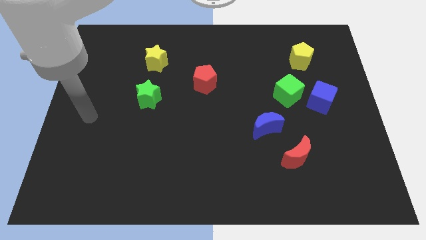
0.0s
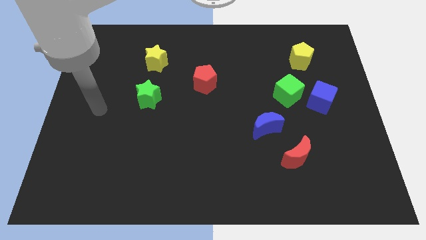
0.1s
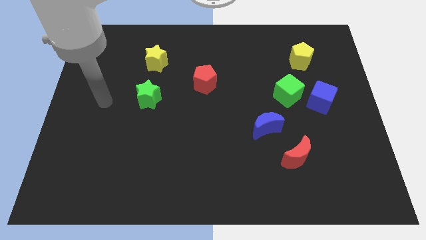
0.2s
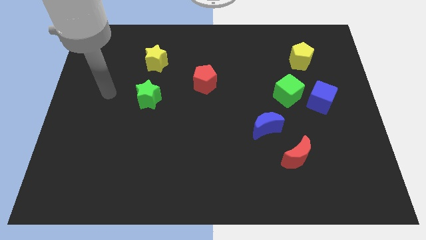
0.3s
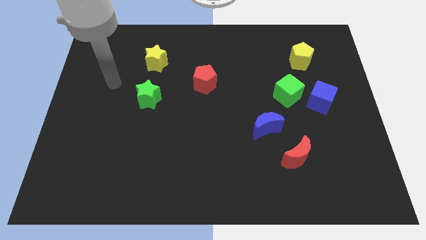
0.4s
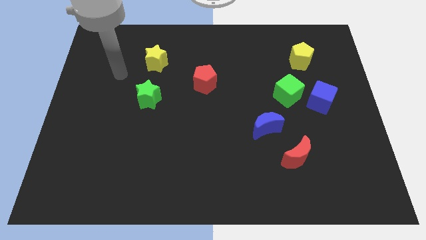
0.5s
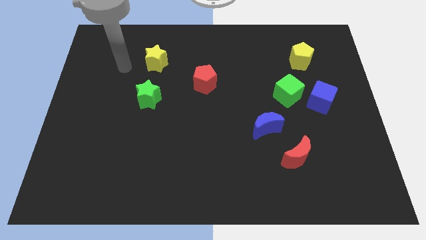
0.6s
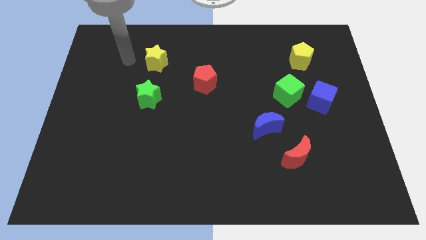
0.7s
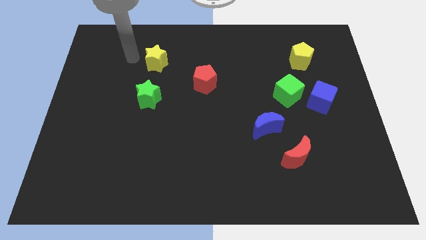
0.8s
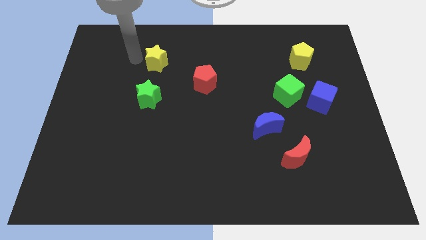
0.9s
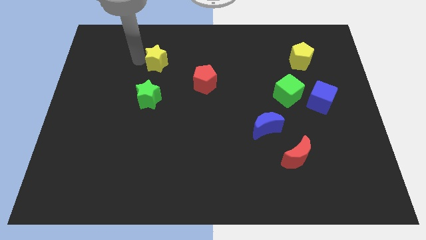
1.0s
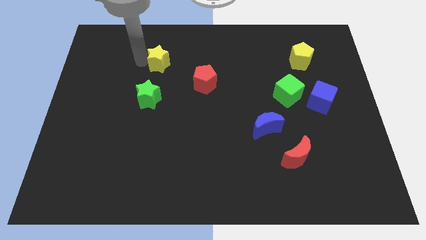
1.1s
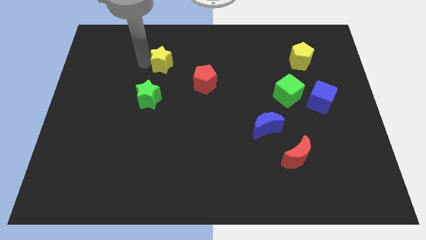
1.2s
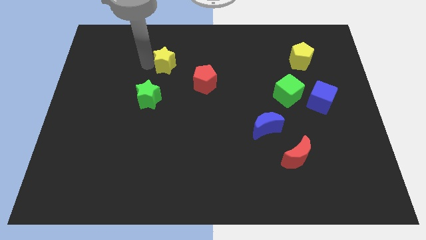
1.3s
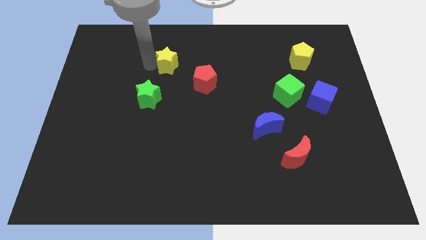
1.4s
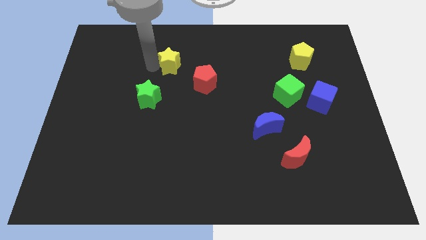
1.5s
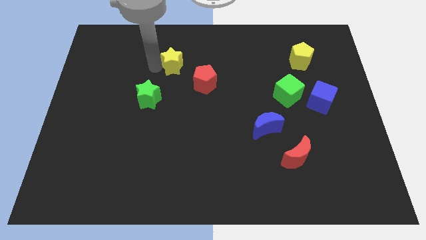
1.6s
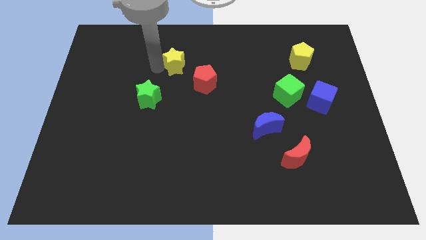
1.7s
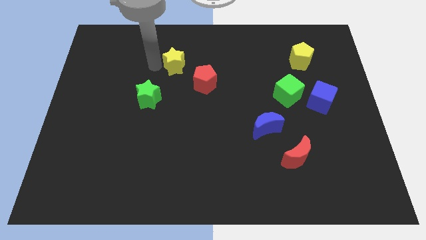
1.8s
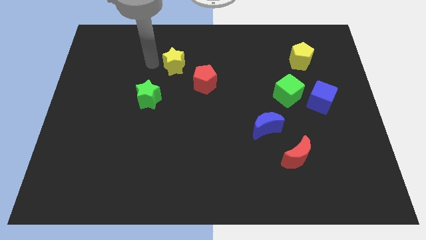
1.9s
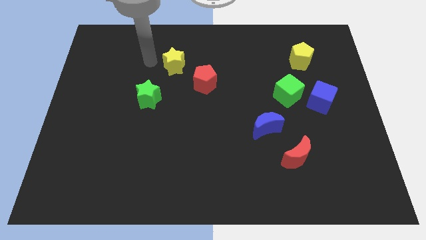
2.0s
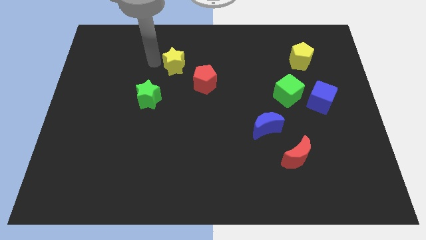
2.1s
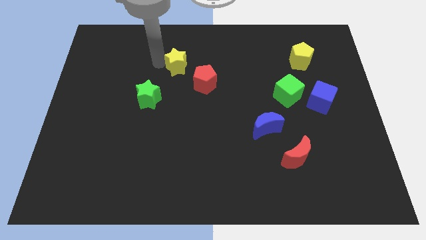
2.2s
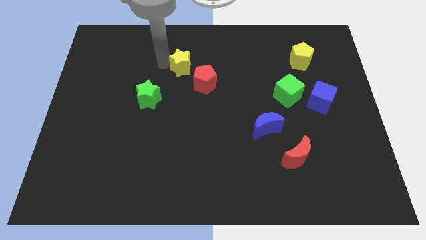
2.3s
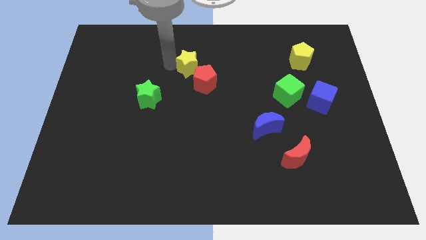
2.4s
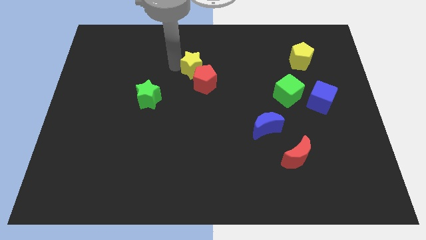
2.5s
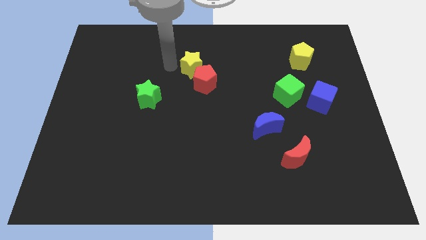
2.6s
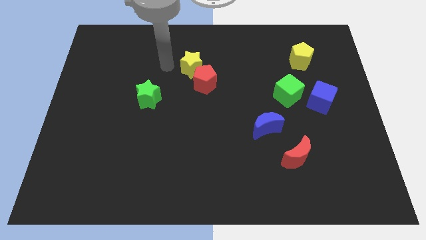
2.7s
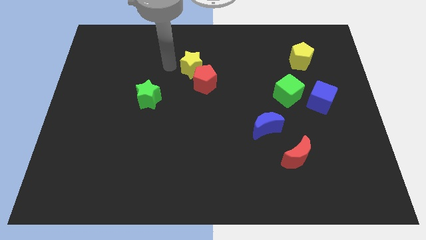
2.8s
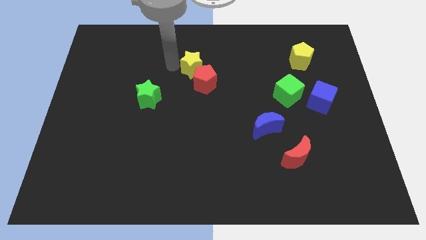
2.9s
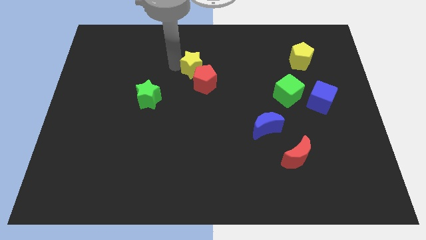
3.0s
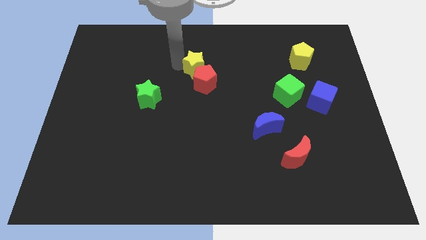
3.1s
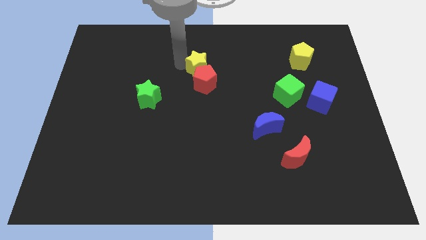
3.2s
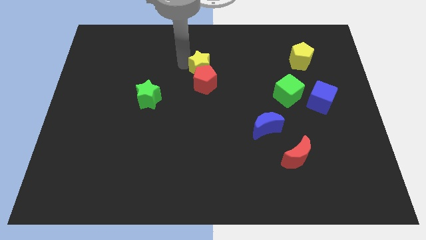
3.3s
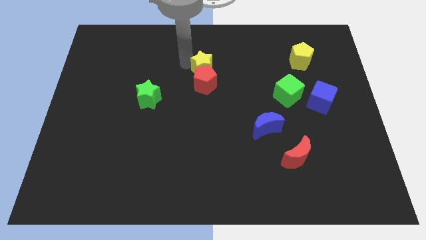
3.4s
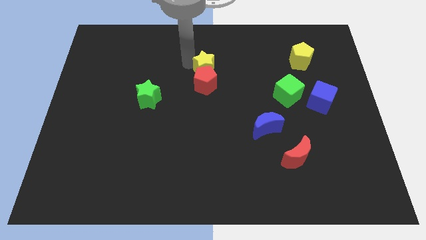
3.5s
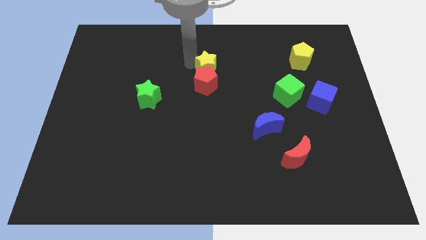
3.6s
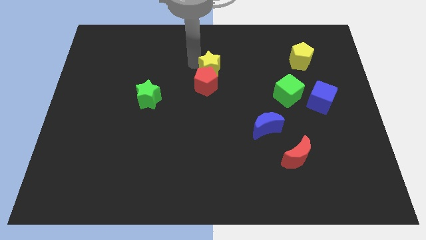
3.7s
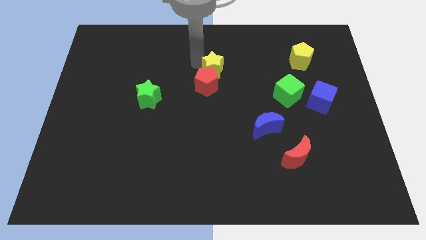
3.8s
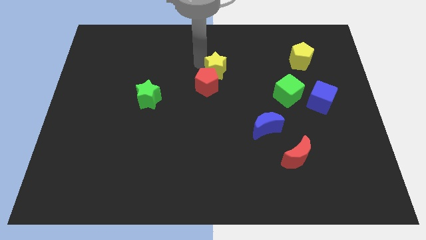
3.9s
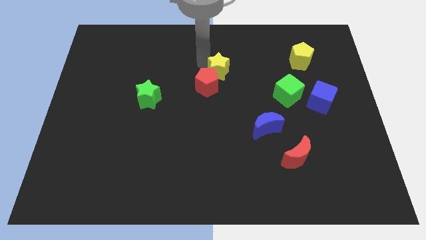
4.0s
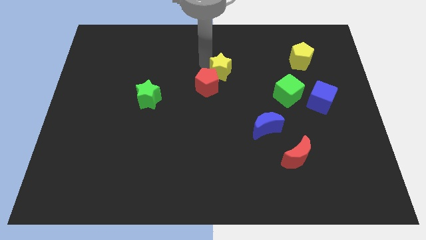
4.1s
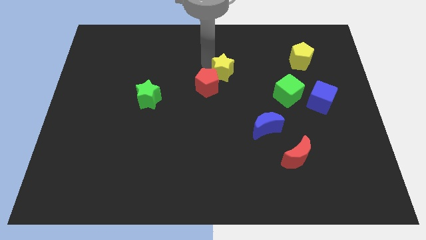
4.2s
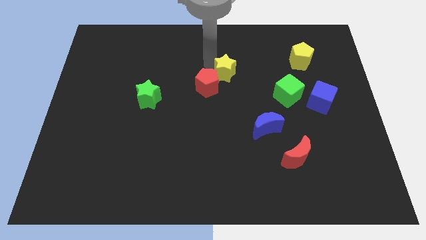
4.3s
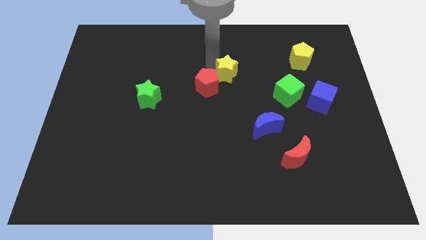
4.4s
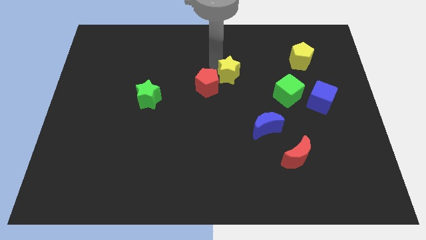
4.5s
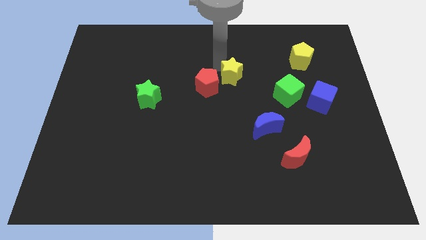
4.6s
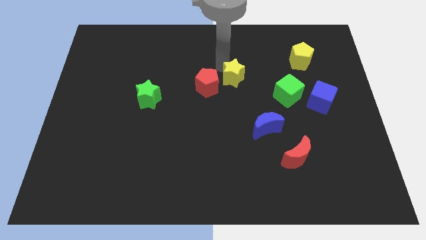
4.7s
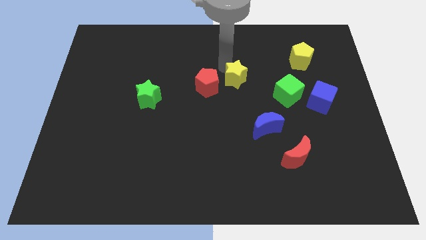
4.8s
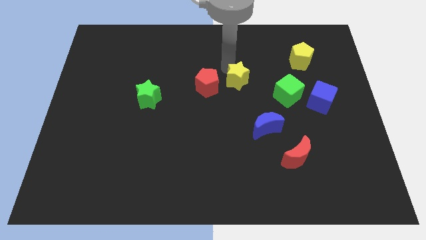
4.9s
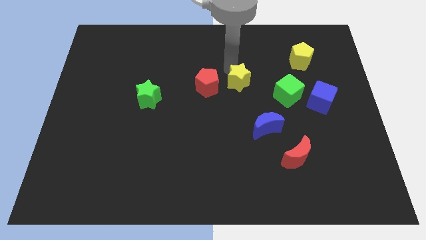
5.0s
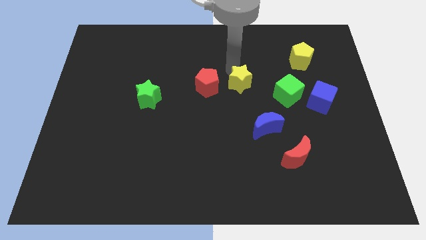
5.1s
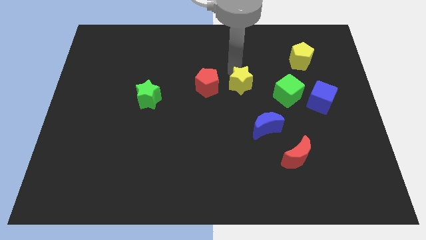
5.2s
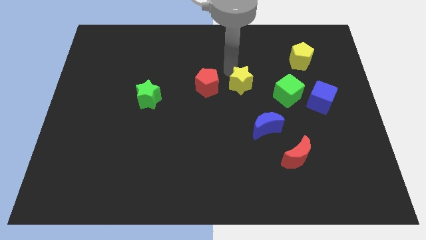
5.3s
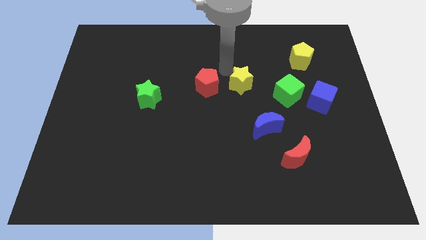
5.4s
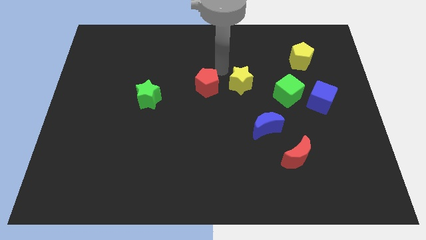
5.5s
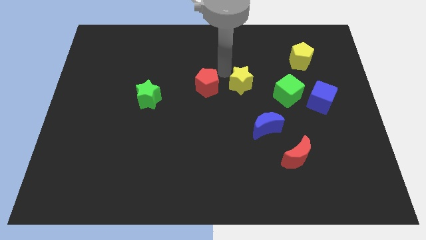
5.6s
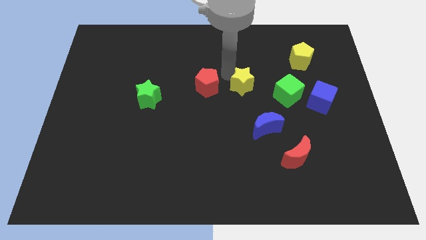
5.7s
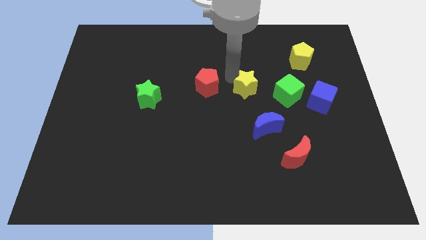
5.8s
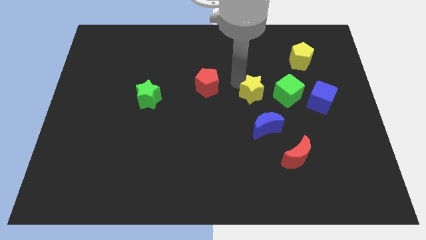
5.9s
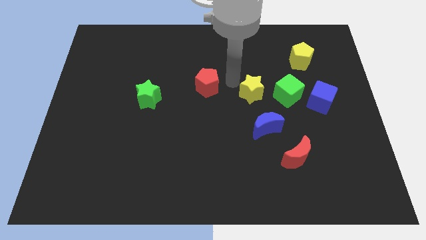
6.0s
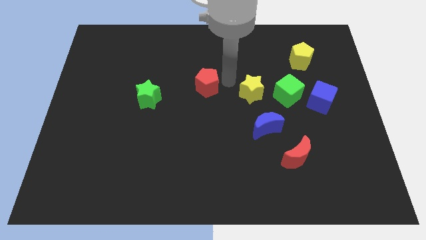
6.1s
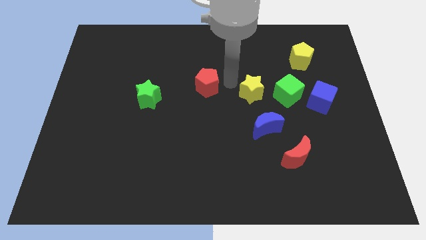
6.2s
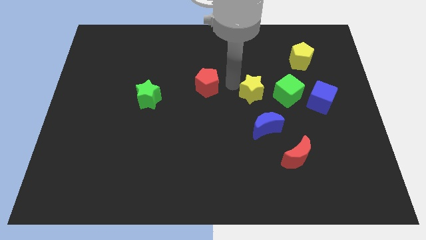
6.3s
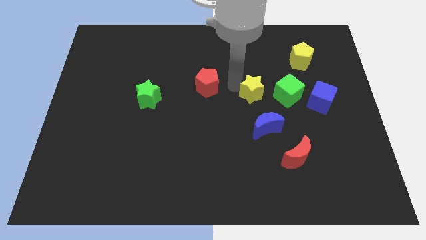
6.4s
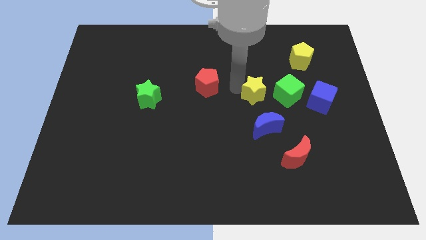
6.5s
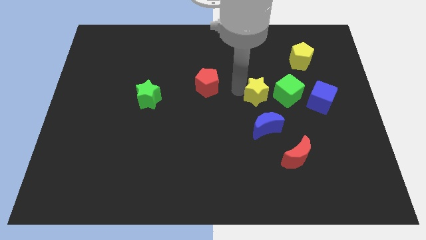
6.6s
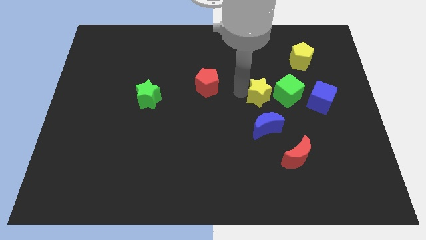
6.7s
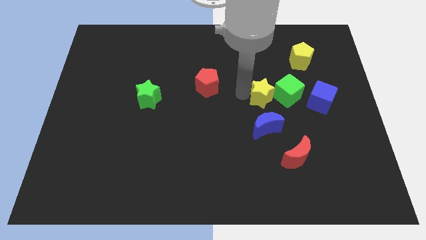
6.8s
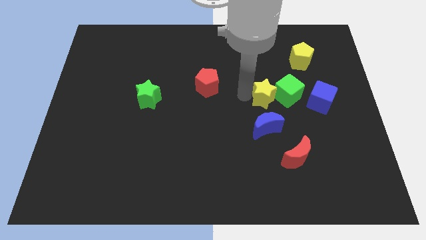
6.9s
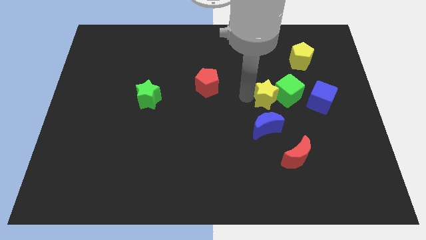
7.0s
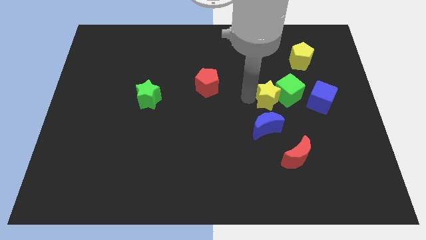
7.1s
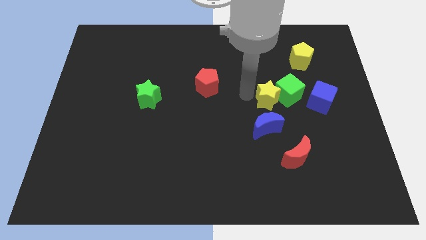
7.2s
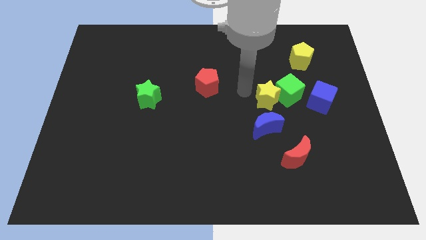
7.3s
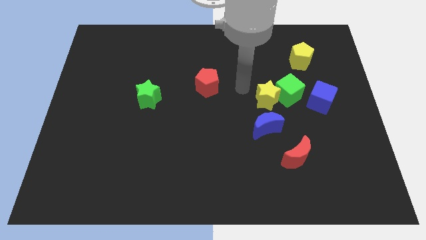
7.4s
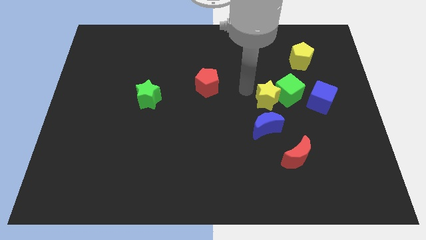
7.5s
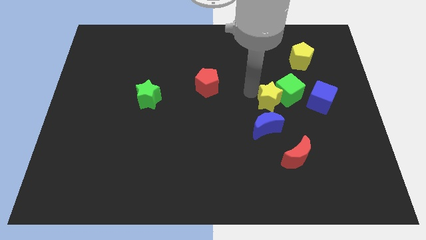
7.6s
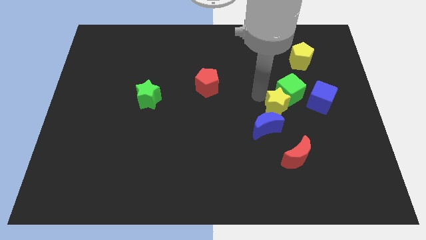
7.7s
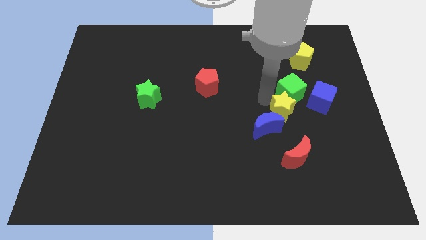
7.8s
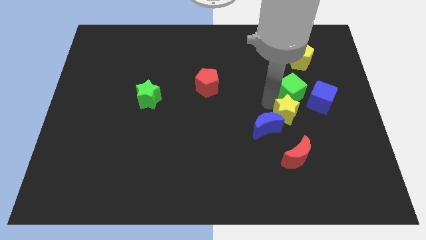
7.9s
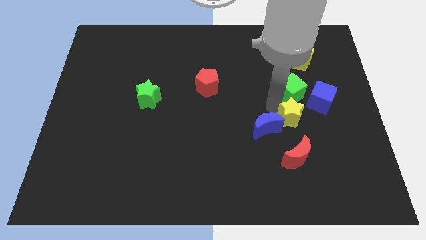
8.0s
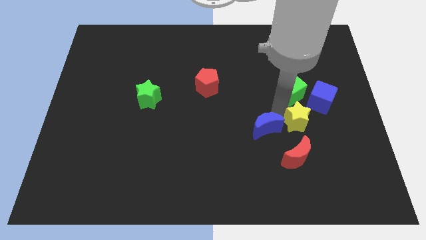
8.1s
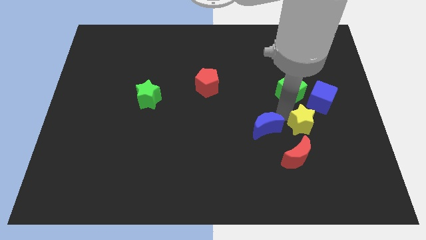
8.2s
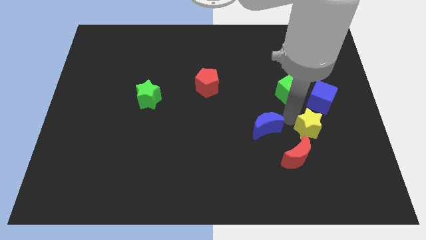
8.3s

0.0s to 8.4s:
push the yellow star below the blue cube
